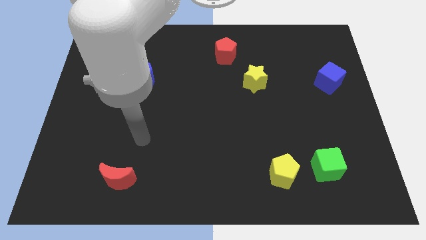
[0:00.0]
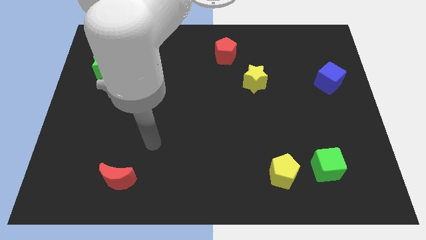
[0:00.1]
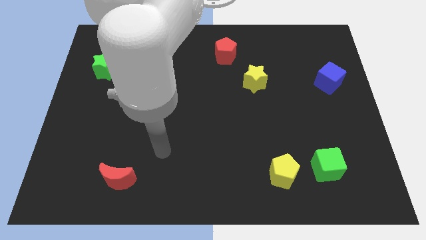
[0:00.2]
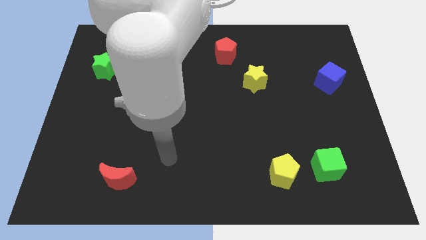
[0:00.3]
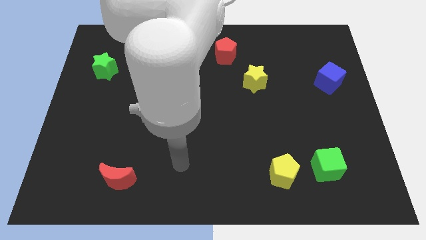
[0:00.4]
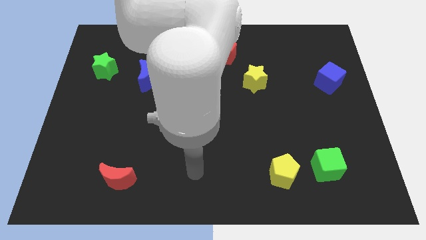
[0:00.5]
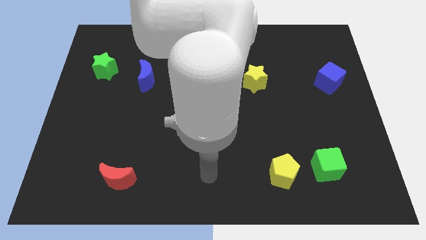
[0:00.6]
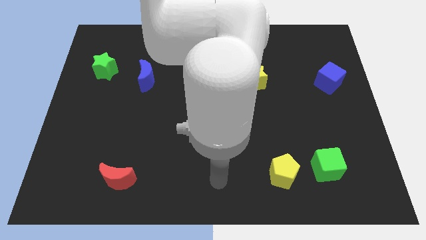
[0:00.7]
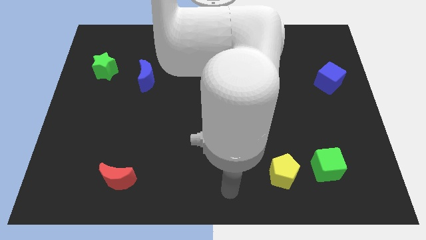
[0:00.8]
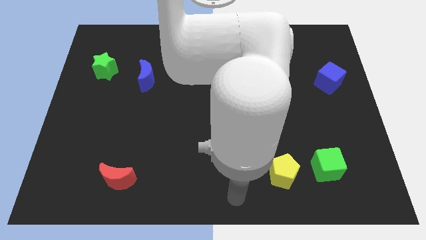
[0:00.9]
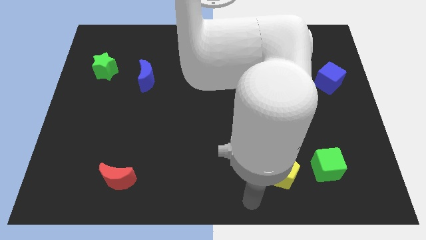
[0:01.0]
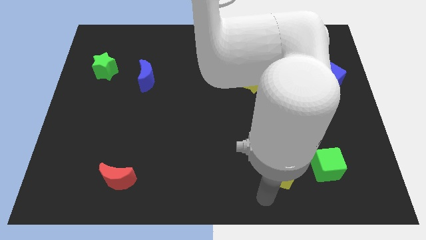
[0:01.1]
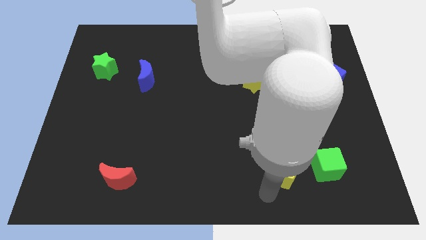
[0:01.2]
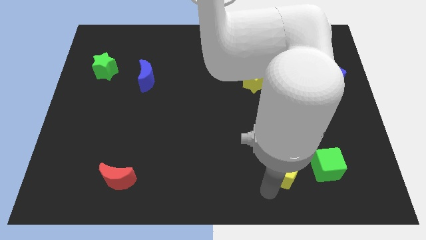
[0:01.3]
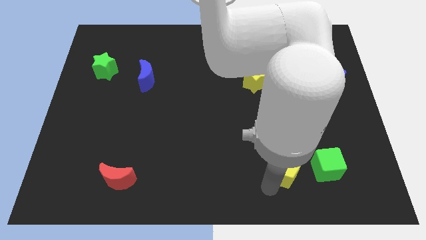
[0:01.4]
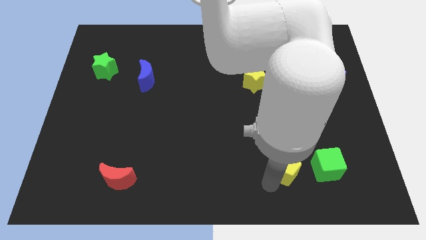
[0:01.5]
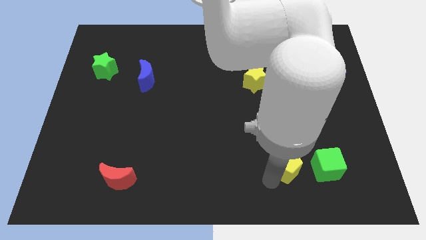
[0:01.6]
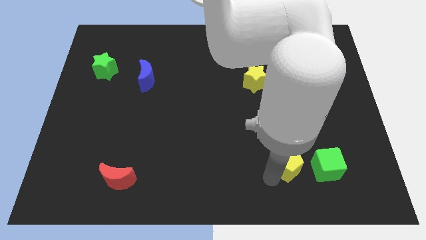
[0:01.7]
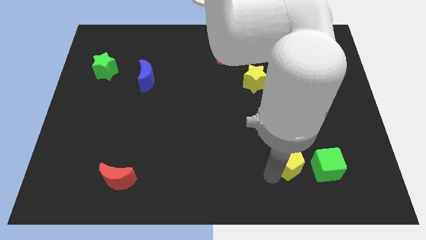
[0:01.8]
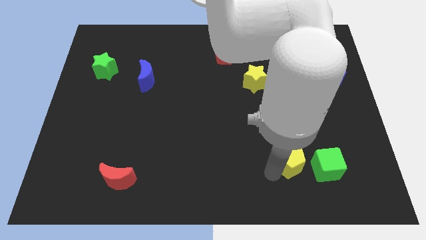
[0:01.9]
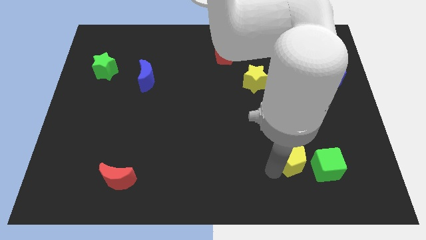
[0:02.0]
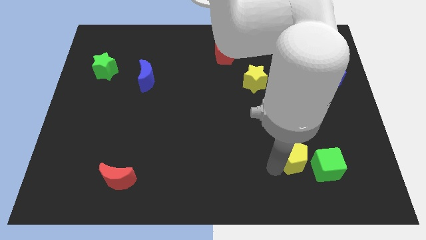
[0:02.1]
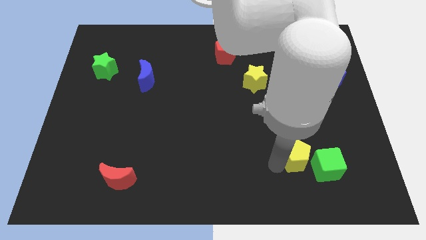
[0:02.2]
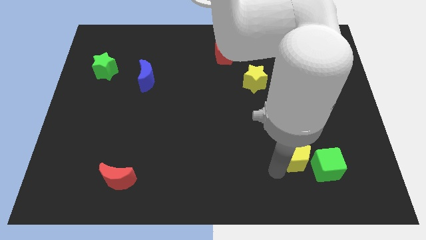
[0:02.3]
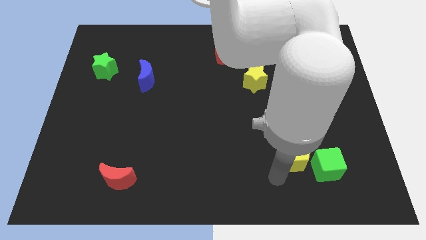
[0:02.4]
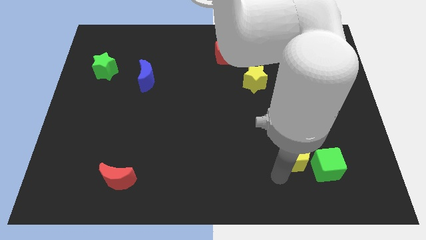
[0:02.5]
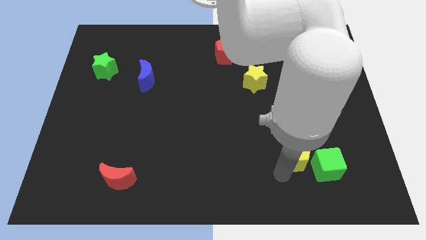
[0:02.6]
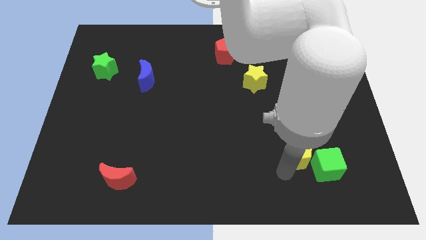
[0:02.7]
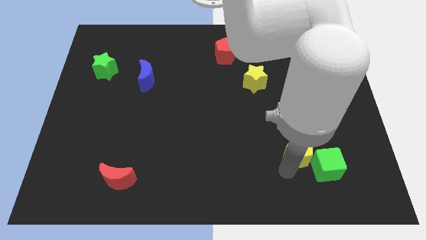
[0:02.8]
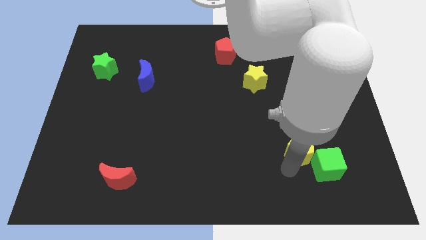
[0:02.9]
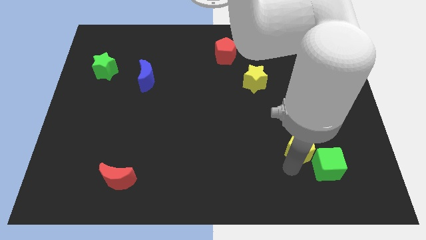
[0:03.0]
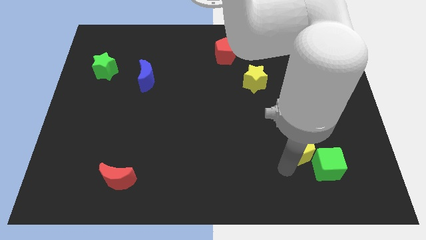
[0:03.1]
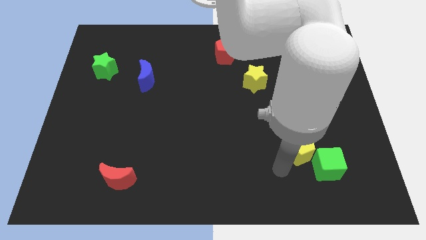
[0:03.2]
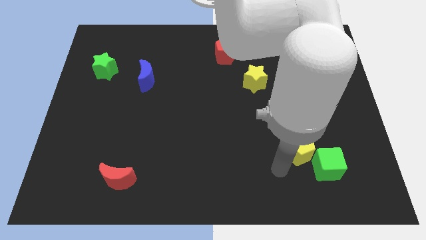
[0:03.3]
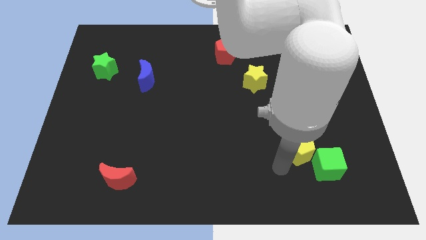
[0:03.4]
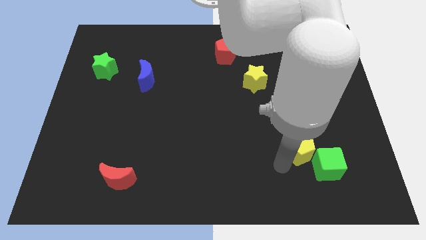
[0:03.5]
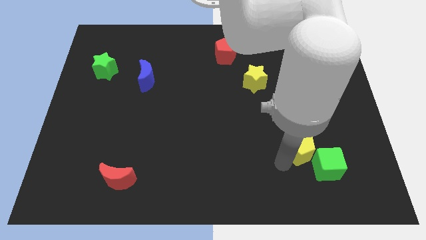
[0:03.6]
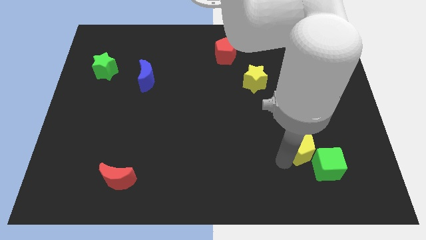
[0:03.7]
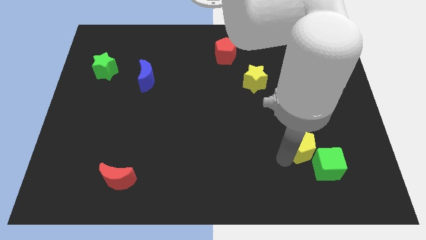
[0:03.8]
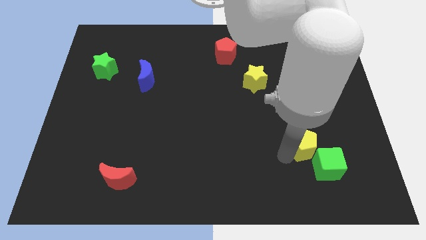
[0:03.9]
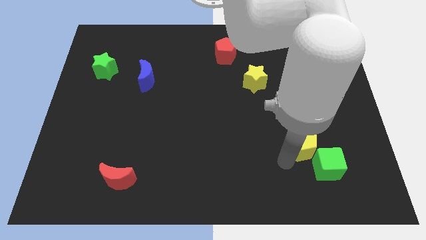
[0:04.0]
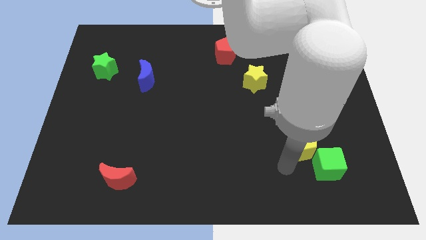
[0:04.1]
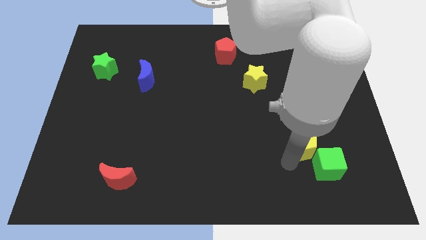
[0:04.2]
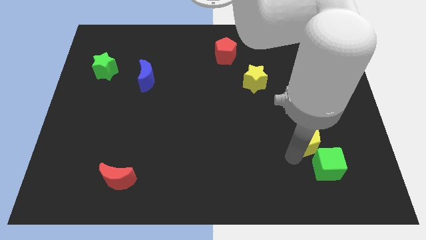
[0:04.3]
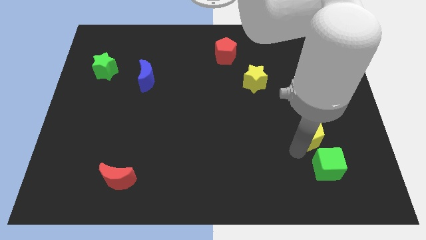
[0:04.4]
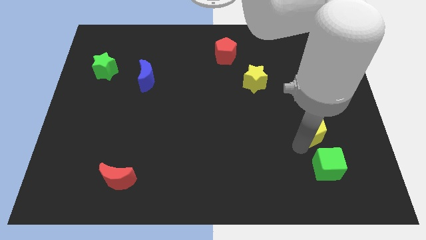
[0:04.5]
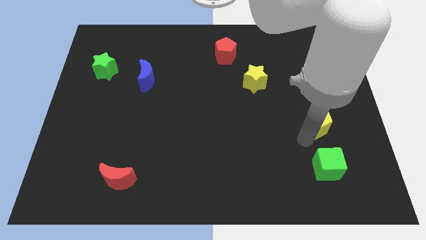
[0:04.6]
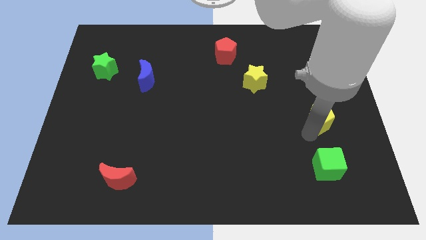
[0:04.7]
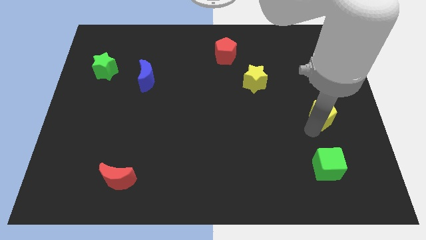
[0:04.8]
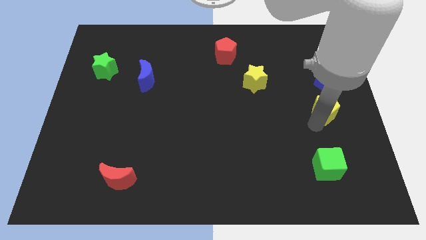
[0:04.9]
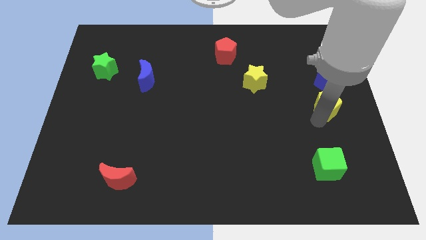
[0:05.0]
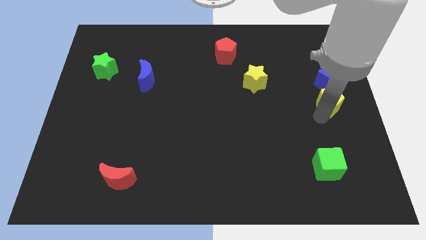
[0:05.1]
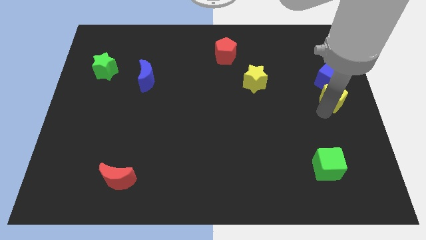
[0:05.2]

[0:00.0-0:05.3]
slide the yellow pentagon towards the blue cube

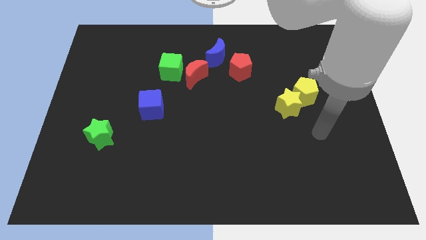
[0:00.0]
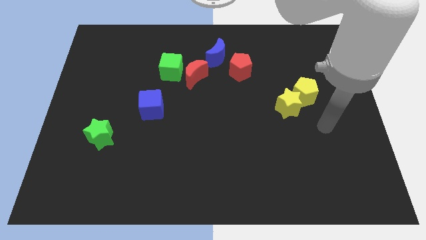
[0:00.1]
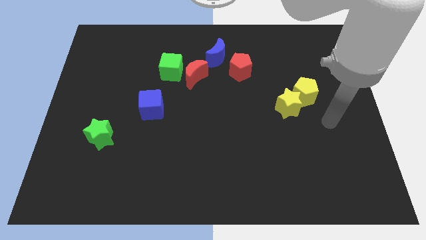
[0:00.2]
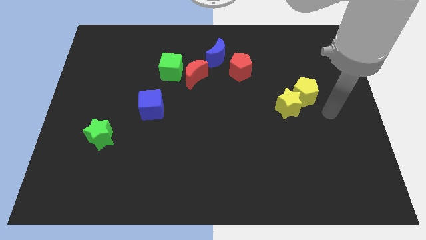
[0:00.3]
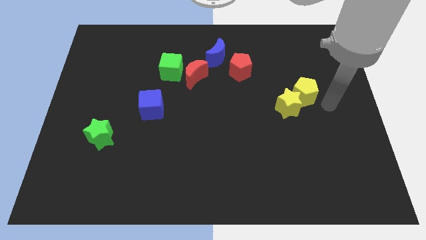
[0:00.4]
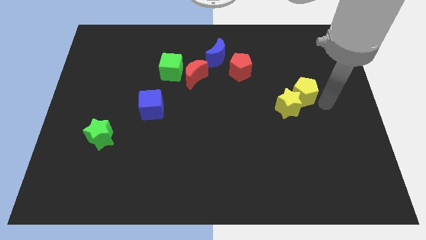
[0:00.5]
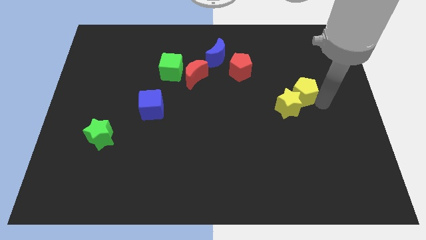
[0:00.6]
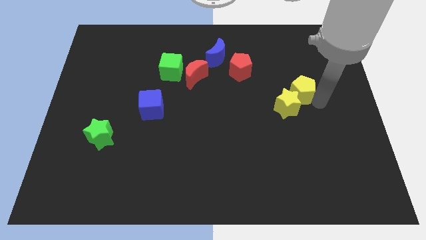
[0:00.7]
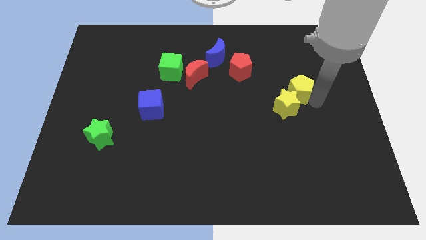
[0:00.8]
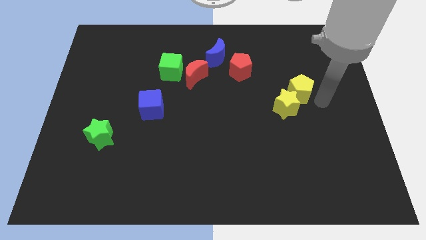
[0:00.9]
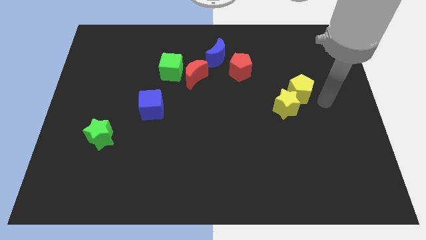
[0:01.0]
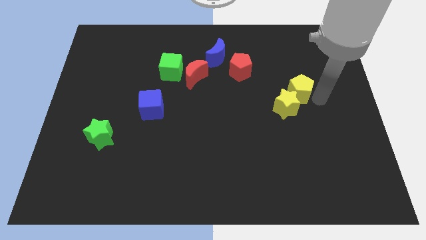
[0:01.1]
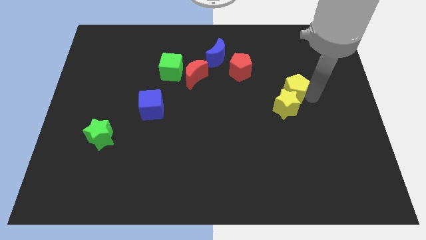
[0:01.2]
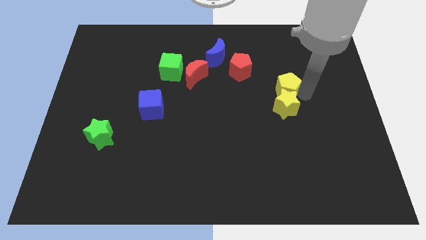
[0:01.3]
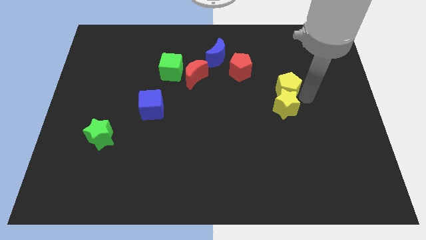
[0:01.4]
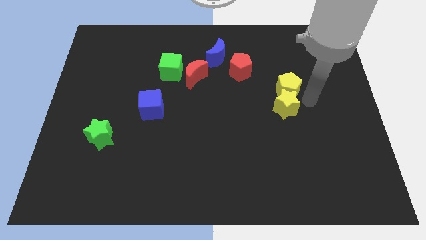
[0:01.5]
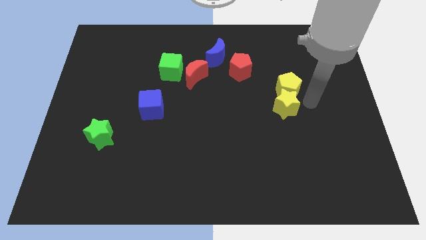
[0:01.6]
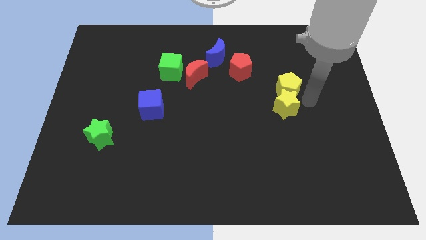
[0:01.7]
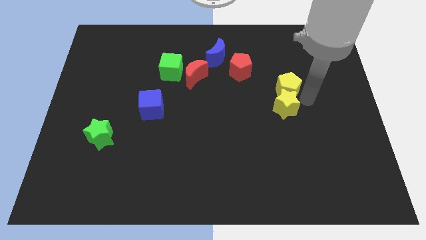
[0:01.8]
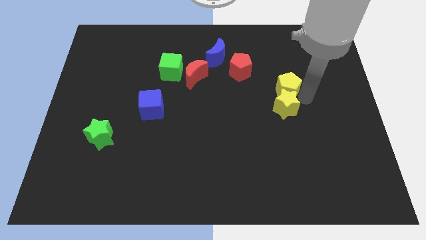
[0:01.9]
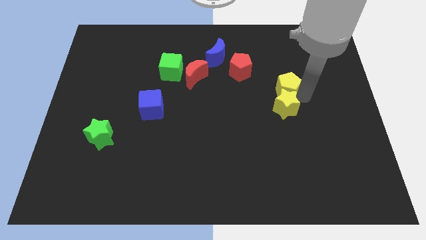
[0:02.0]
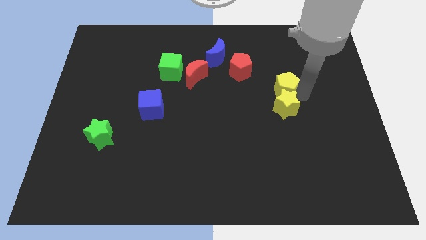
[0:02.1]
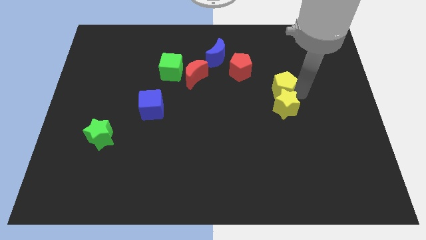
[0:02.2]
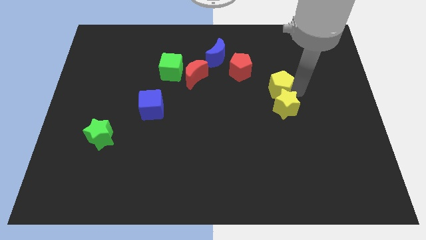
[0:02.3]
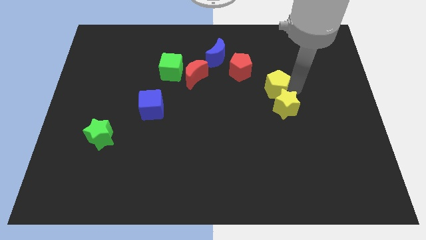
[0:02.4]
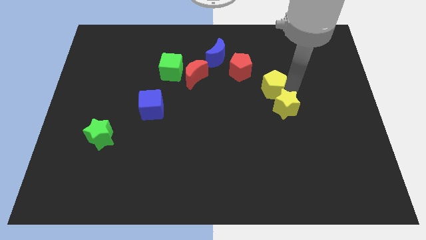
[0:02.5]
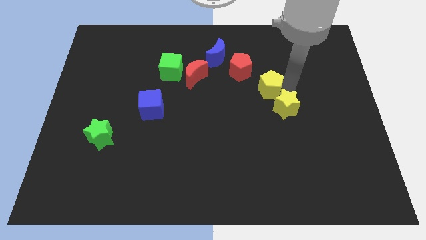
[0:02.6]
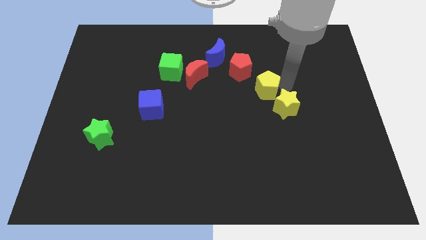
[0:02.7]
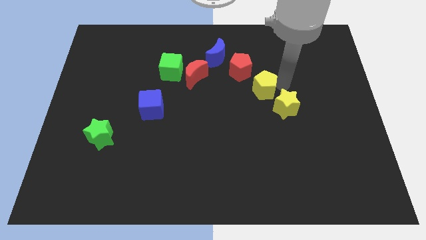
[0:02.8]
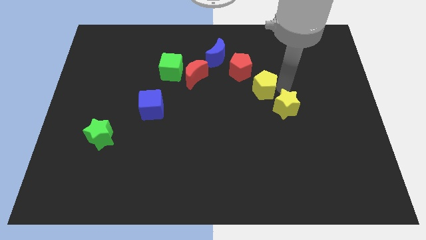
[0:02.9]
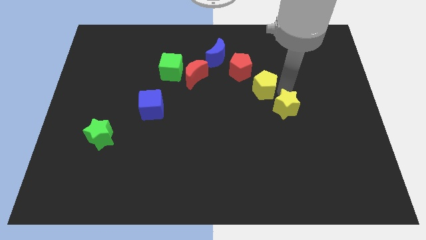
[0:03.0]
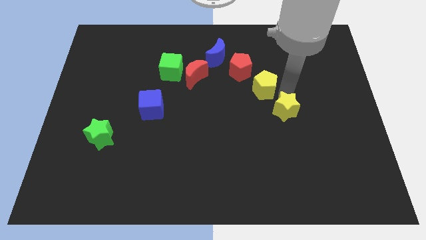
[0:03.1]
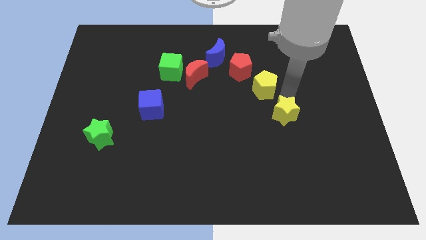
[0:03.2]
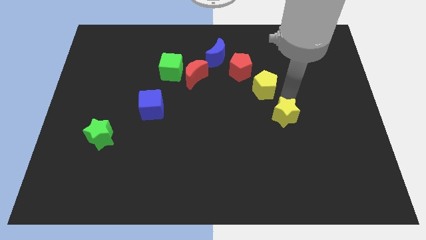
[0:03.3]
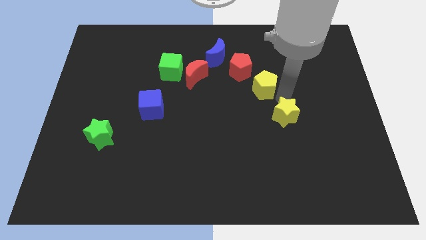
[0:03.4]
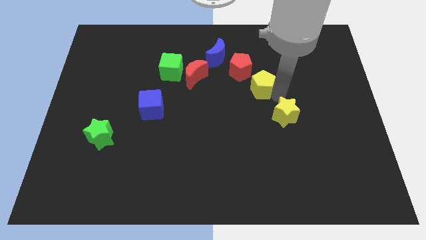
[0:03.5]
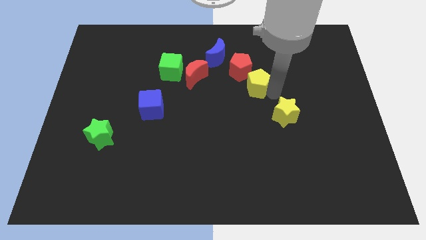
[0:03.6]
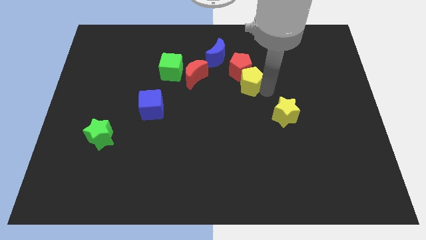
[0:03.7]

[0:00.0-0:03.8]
move the yellow pentagon to the red pentagon
